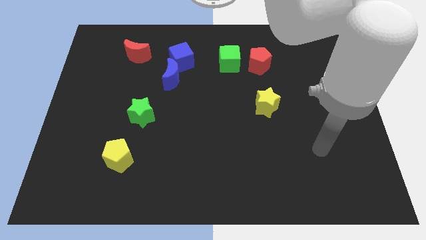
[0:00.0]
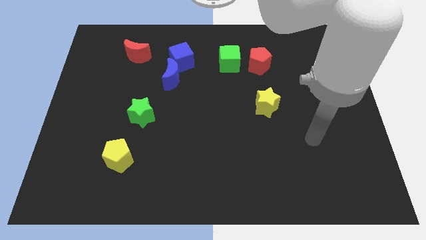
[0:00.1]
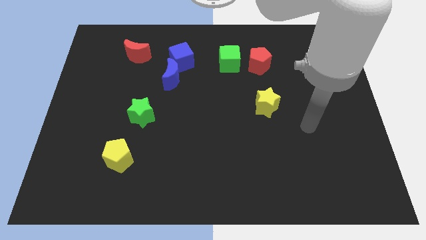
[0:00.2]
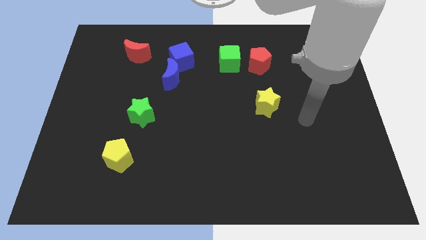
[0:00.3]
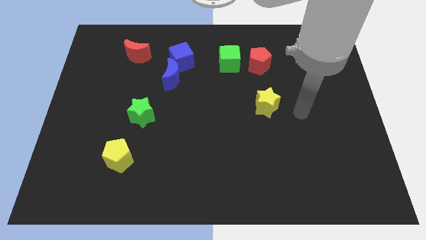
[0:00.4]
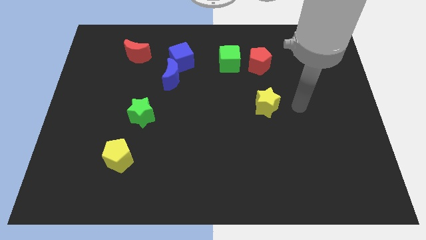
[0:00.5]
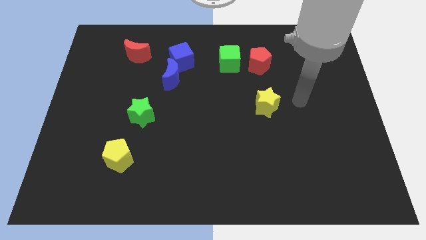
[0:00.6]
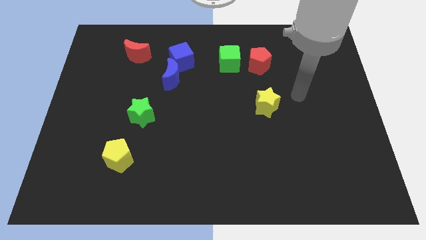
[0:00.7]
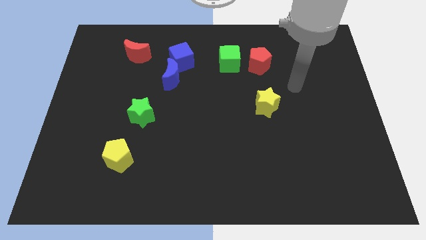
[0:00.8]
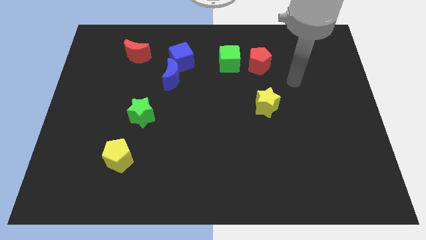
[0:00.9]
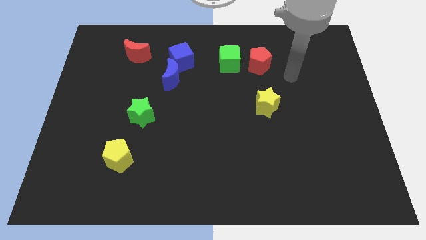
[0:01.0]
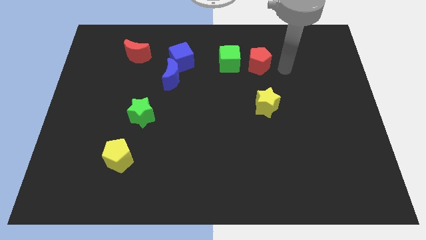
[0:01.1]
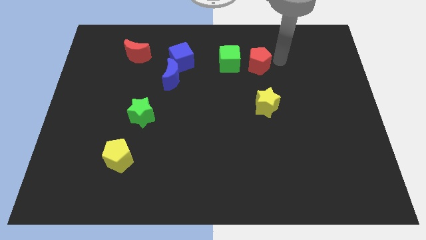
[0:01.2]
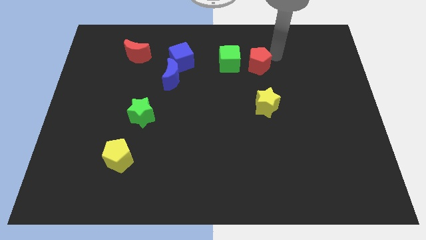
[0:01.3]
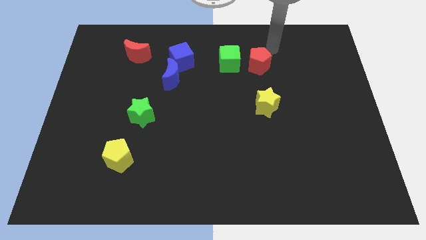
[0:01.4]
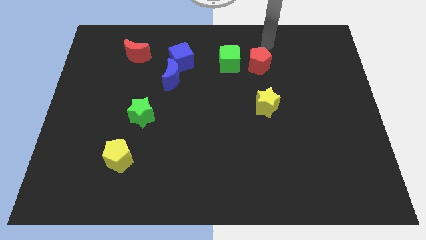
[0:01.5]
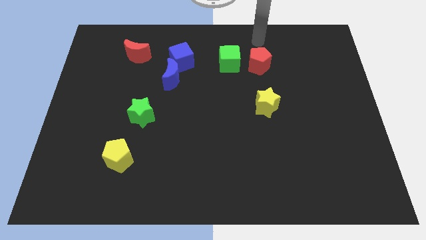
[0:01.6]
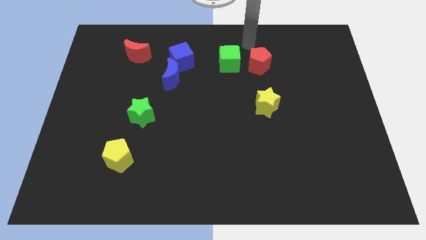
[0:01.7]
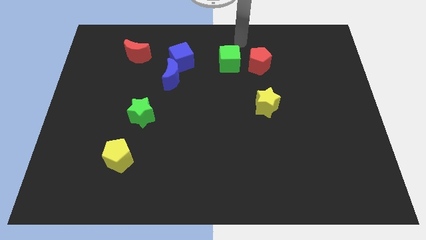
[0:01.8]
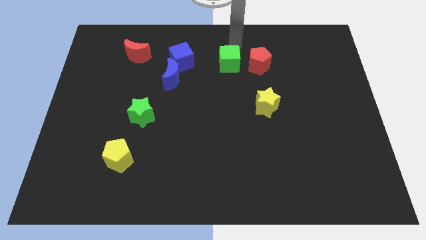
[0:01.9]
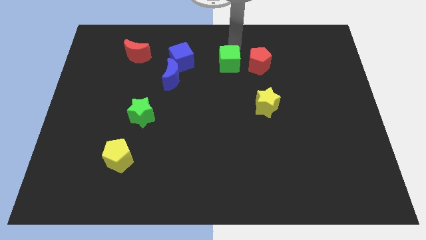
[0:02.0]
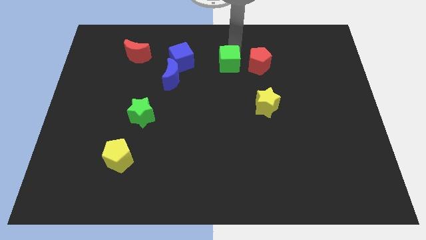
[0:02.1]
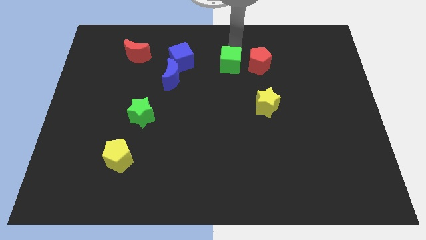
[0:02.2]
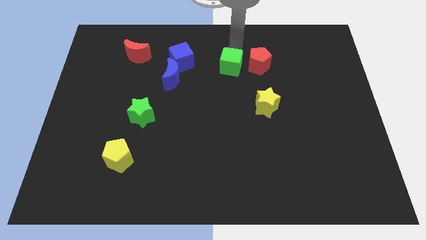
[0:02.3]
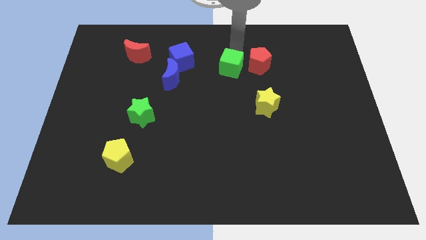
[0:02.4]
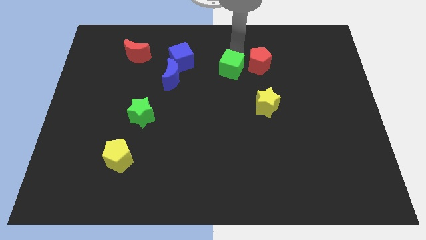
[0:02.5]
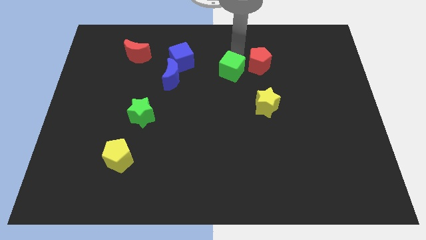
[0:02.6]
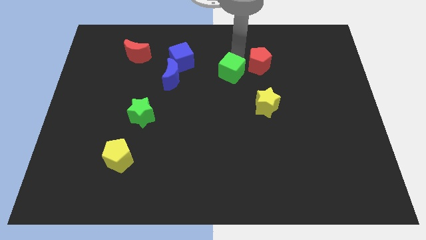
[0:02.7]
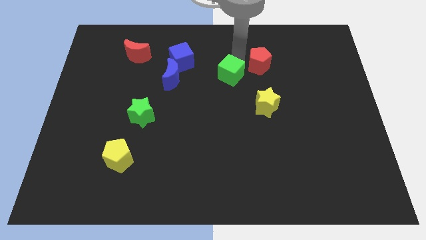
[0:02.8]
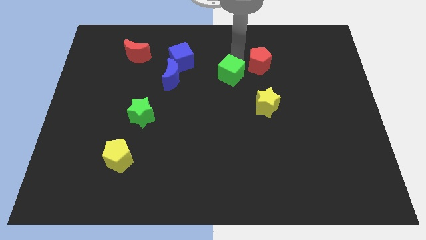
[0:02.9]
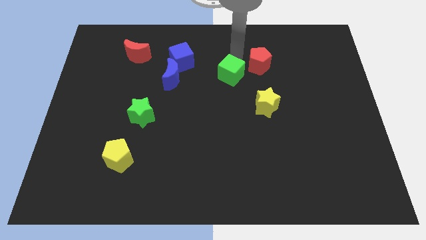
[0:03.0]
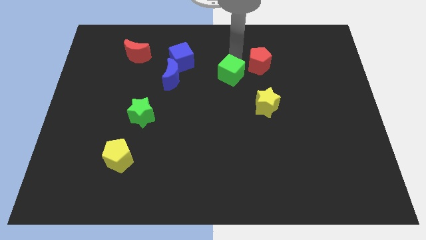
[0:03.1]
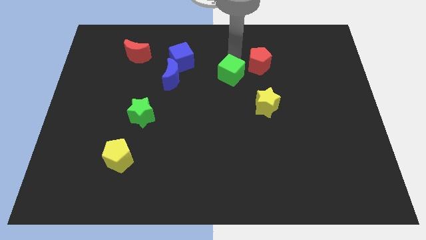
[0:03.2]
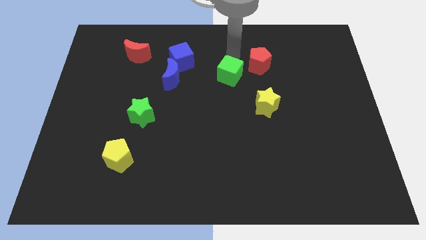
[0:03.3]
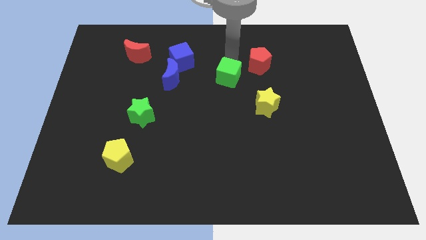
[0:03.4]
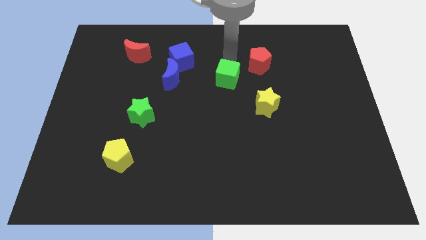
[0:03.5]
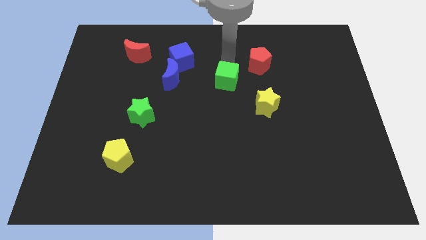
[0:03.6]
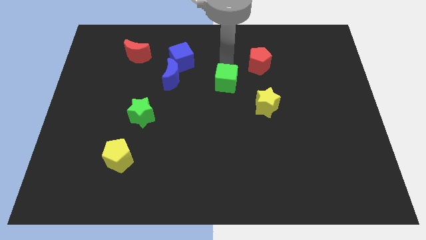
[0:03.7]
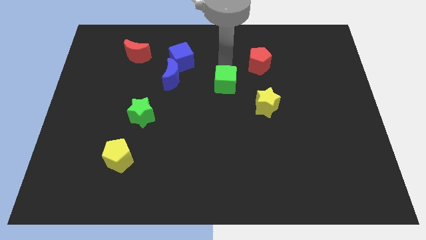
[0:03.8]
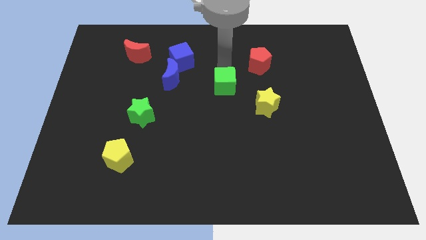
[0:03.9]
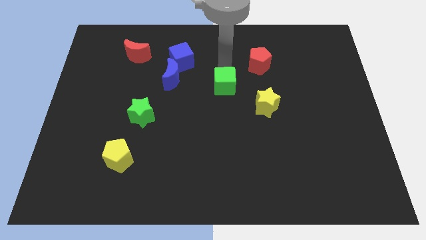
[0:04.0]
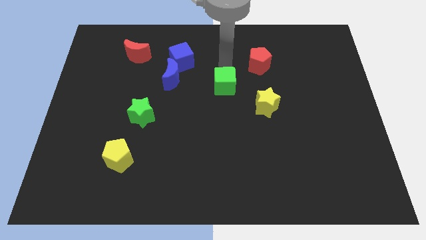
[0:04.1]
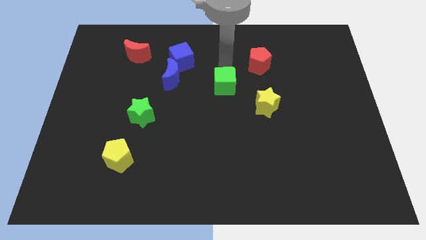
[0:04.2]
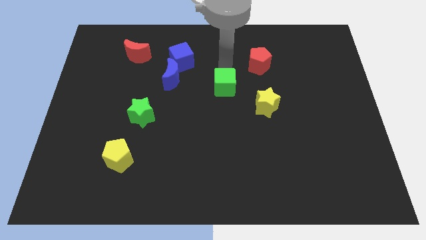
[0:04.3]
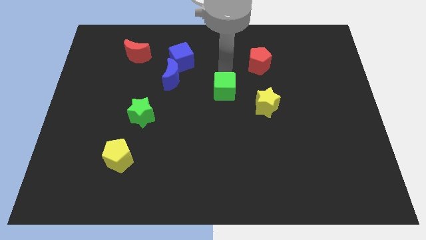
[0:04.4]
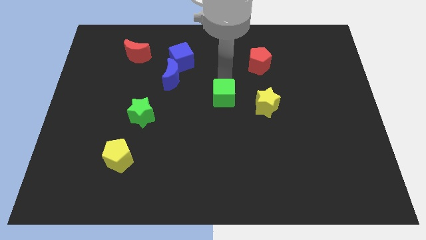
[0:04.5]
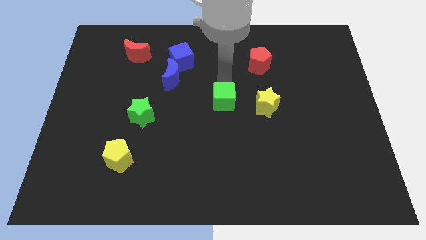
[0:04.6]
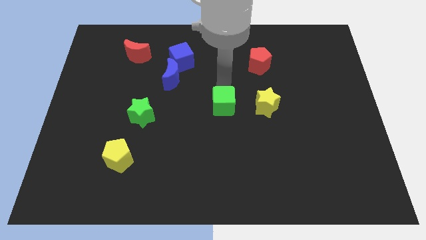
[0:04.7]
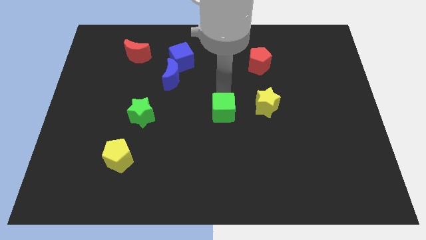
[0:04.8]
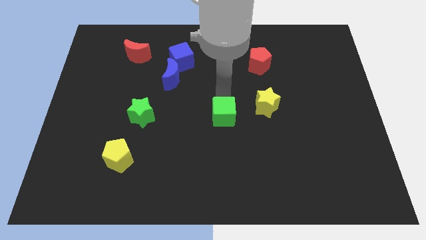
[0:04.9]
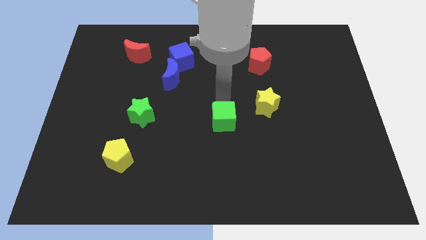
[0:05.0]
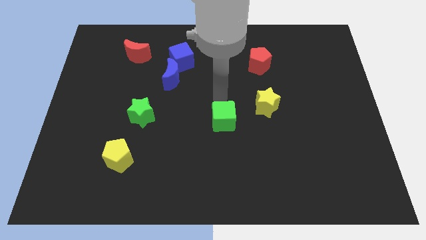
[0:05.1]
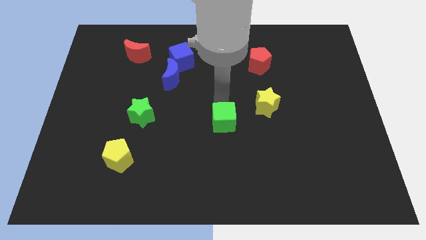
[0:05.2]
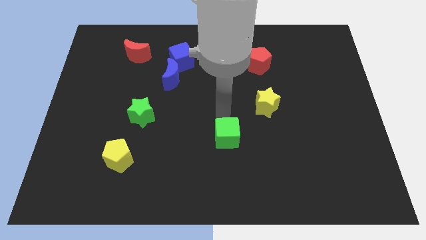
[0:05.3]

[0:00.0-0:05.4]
move the green cube downwards

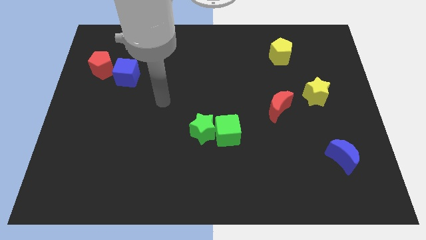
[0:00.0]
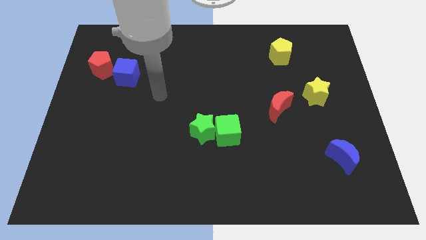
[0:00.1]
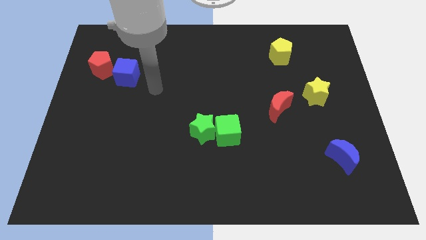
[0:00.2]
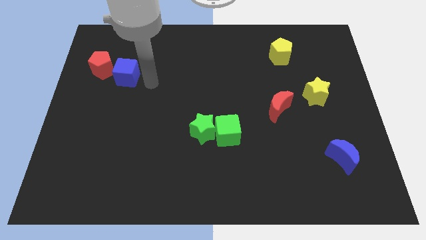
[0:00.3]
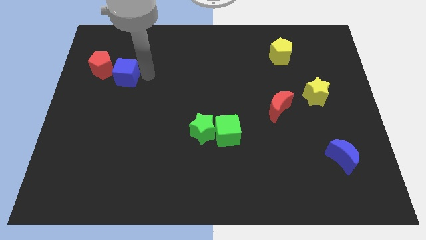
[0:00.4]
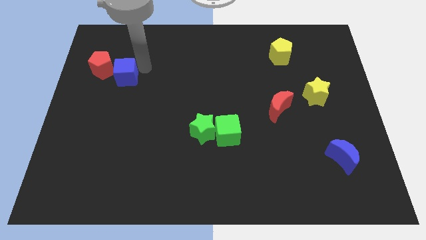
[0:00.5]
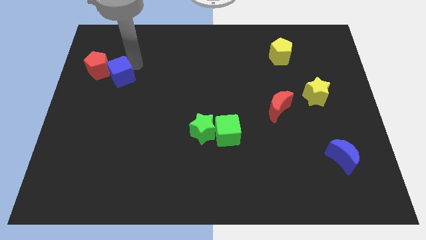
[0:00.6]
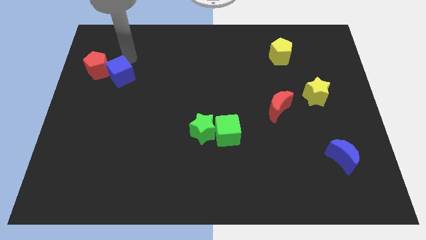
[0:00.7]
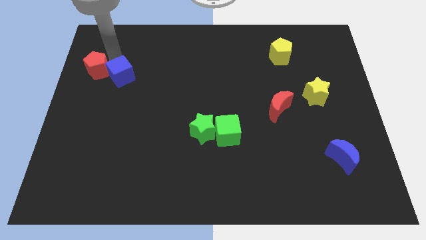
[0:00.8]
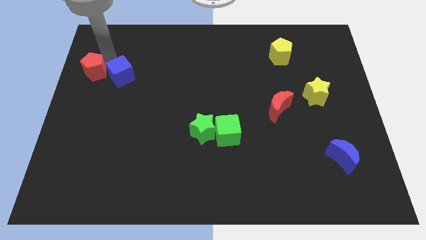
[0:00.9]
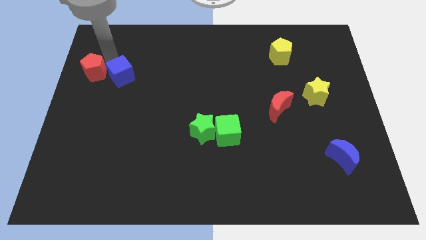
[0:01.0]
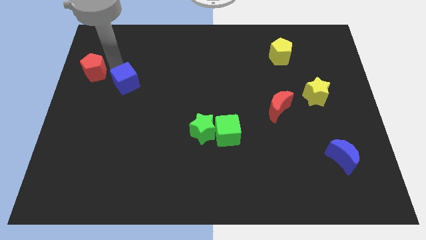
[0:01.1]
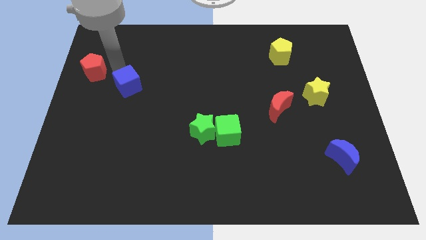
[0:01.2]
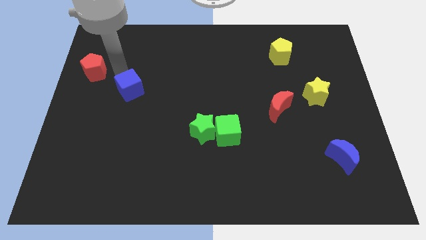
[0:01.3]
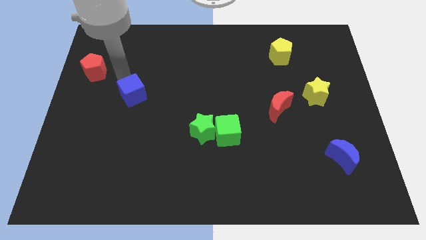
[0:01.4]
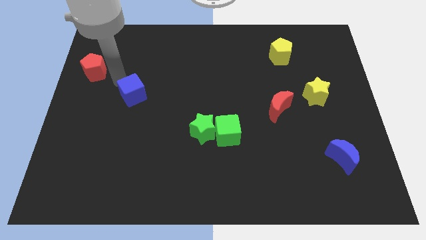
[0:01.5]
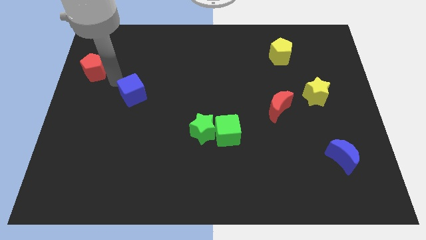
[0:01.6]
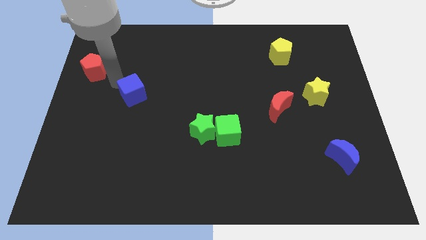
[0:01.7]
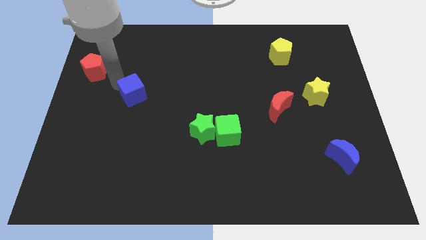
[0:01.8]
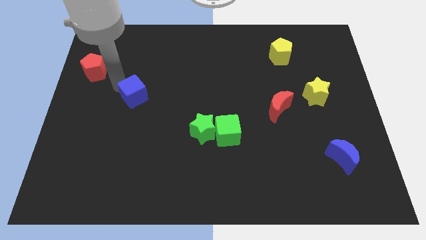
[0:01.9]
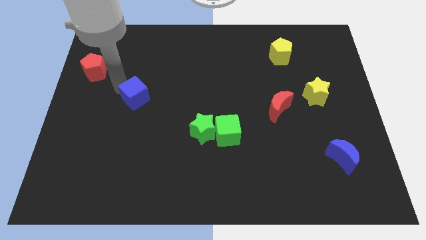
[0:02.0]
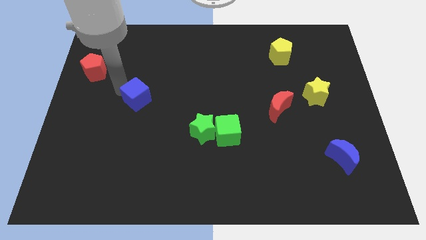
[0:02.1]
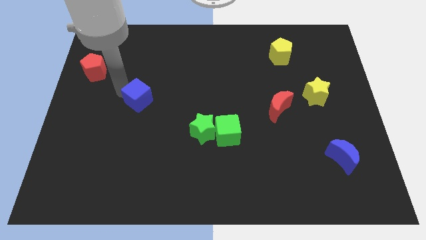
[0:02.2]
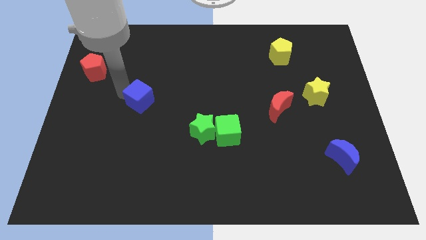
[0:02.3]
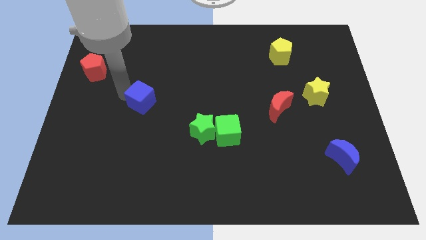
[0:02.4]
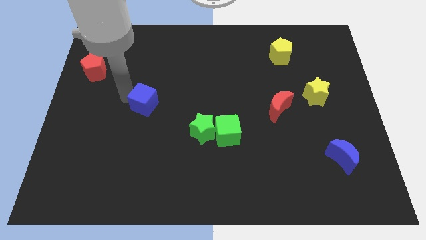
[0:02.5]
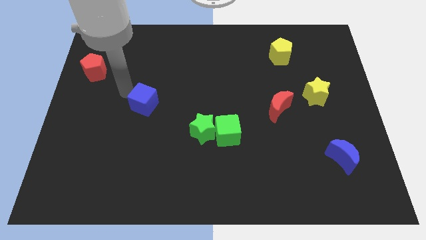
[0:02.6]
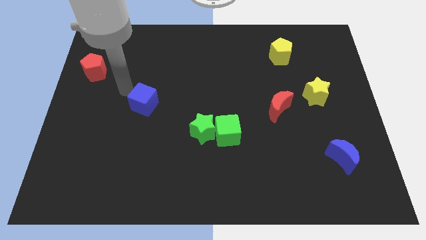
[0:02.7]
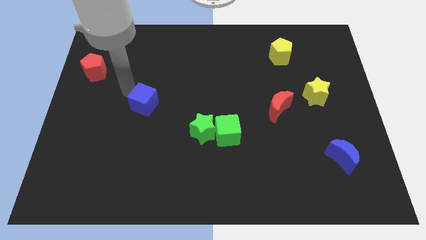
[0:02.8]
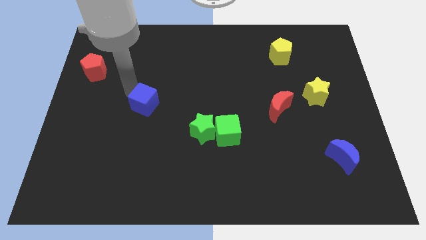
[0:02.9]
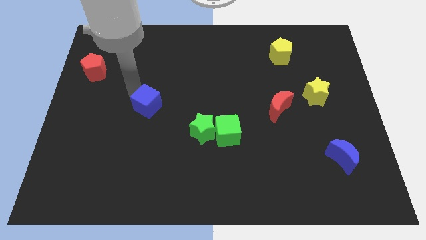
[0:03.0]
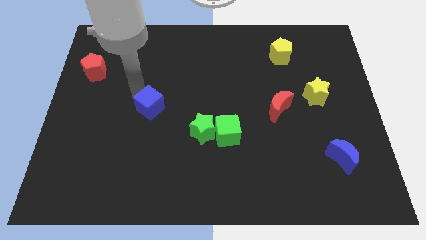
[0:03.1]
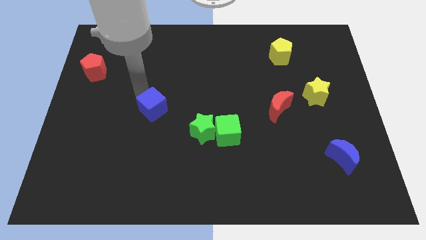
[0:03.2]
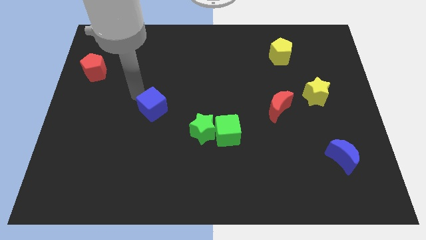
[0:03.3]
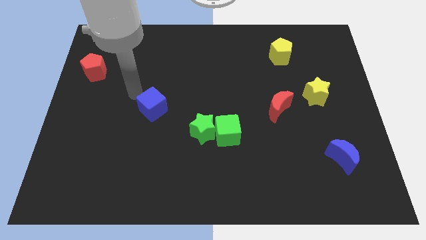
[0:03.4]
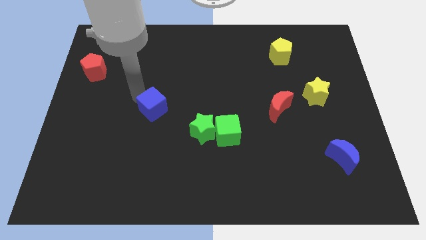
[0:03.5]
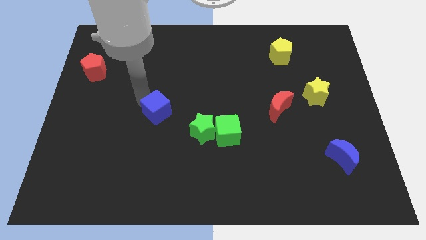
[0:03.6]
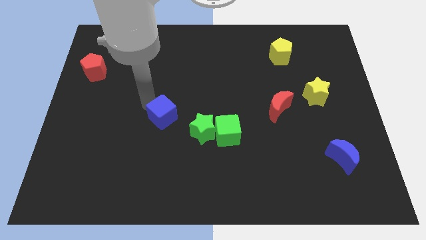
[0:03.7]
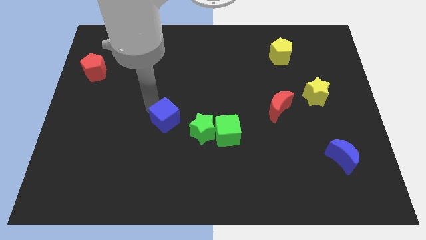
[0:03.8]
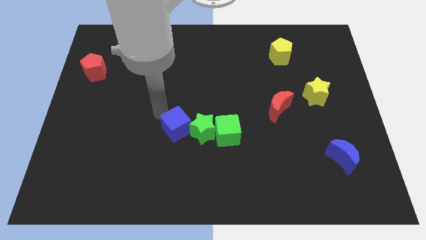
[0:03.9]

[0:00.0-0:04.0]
push the blue cube down and right diagonally
